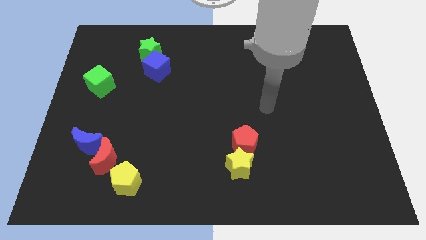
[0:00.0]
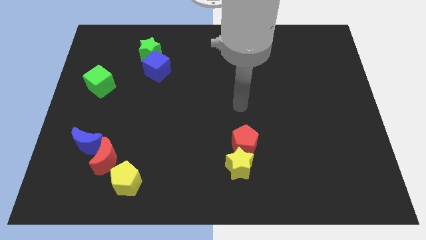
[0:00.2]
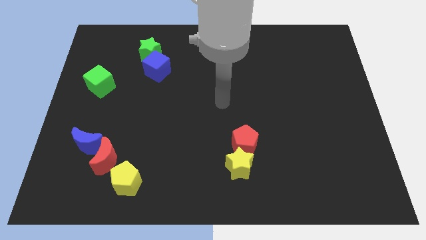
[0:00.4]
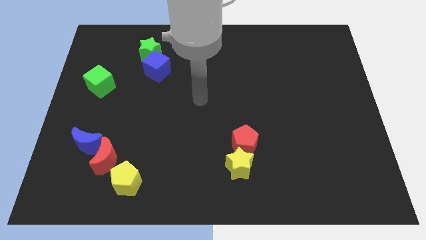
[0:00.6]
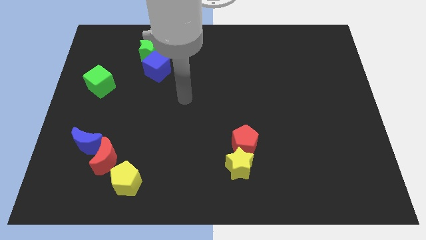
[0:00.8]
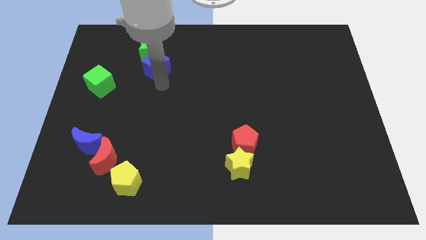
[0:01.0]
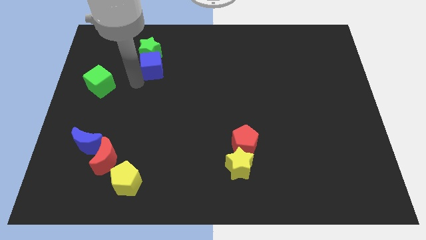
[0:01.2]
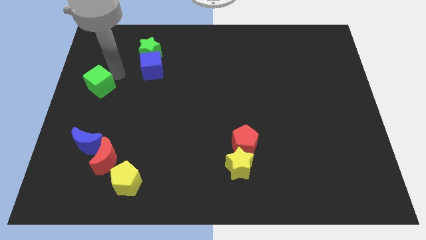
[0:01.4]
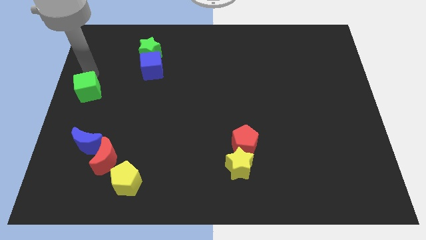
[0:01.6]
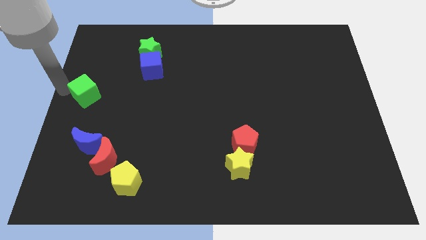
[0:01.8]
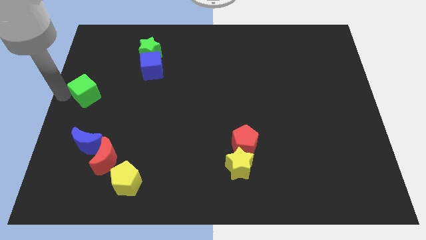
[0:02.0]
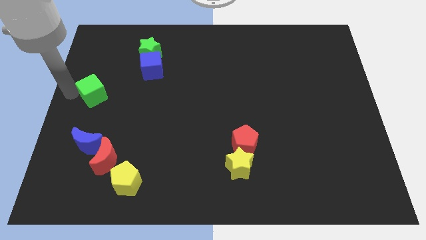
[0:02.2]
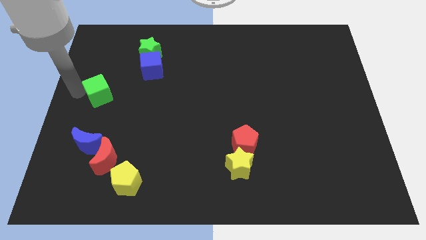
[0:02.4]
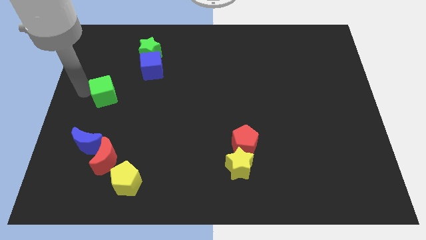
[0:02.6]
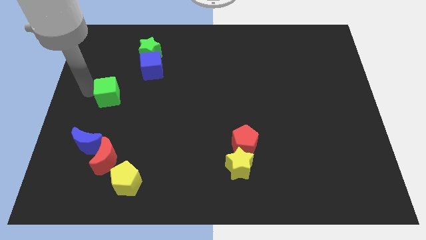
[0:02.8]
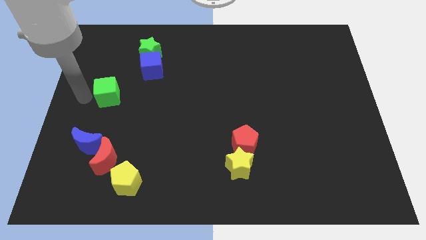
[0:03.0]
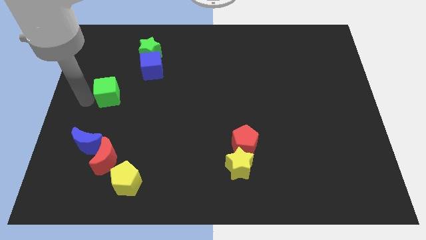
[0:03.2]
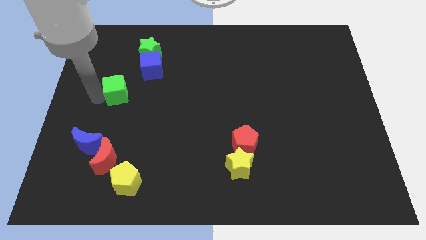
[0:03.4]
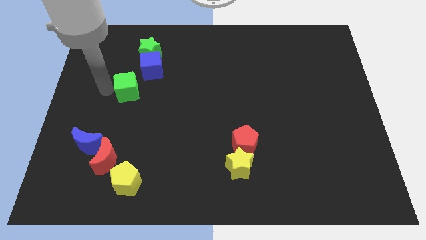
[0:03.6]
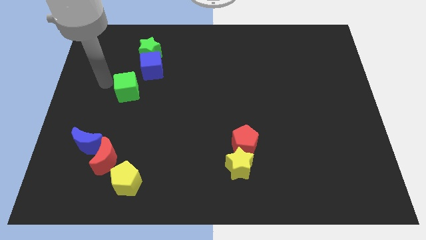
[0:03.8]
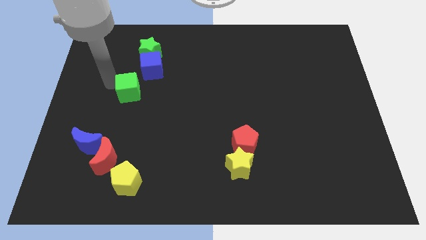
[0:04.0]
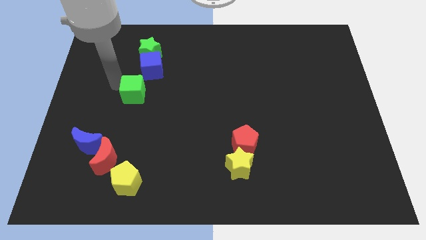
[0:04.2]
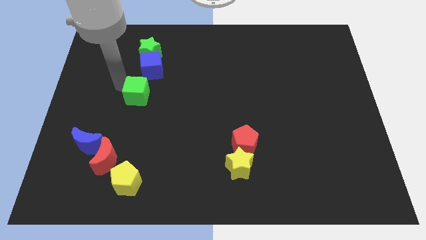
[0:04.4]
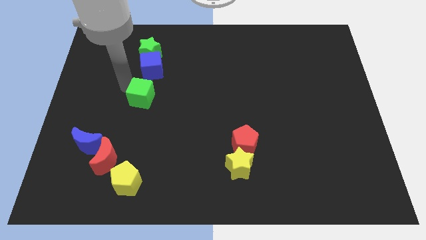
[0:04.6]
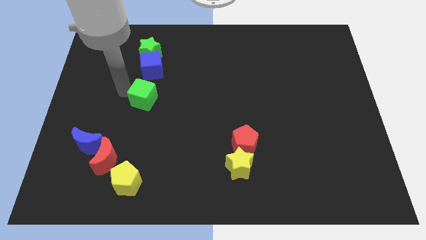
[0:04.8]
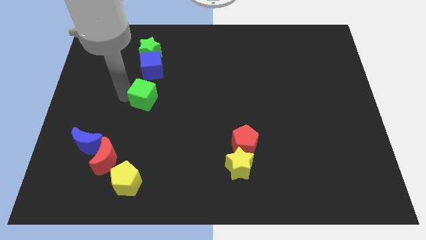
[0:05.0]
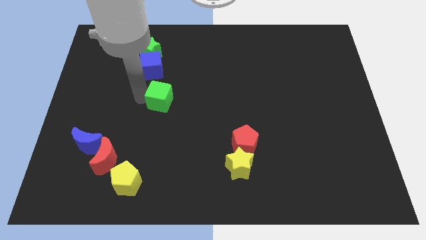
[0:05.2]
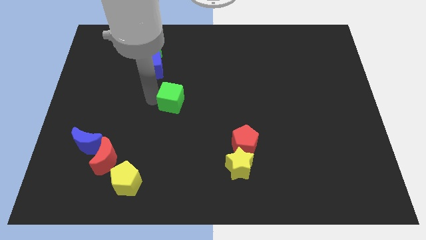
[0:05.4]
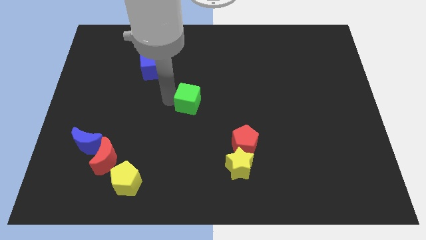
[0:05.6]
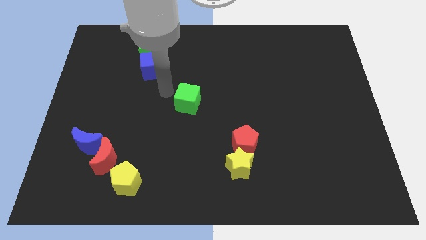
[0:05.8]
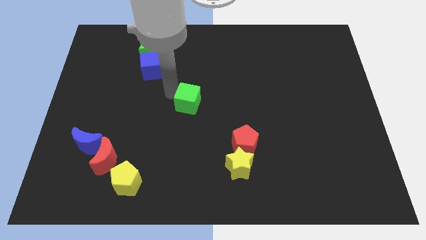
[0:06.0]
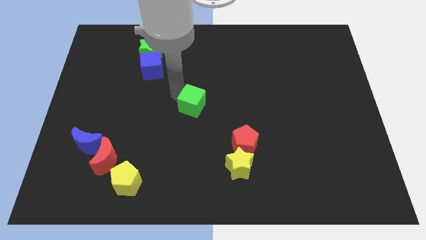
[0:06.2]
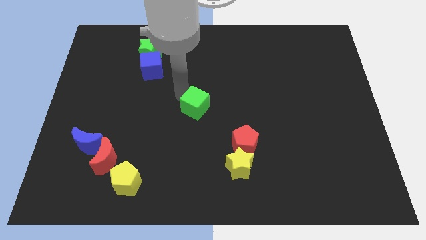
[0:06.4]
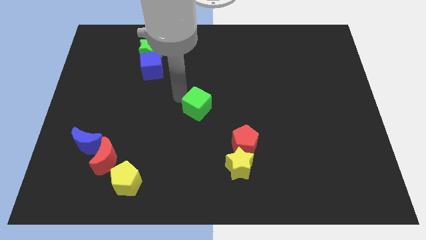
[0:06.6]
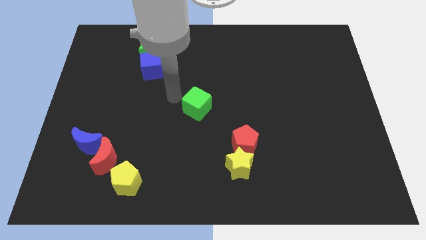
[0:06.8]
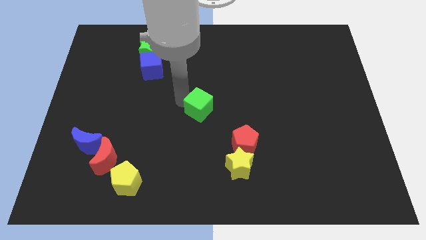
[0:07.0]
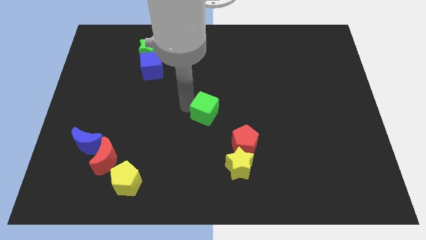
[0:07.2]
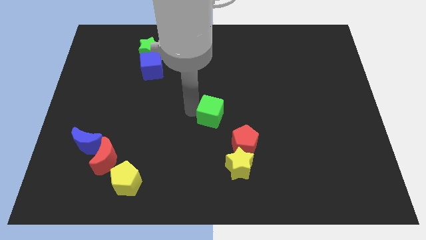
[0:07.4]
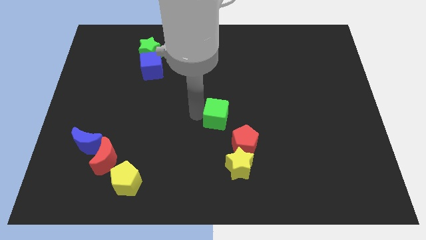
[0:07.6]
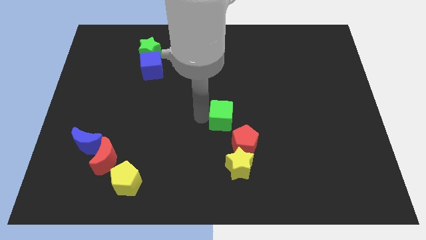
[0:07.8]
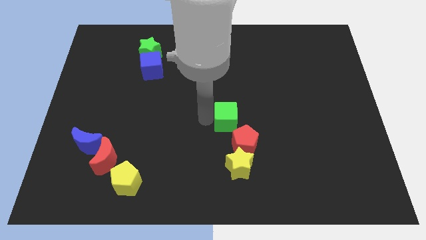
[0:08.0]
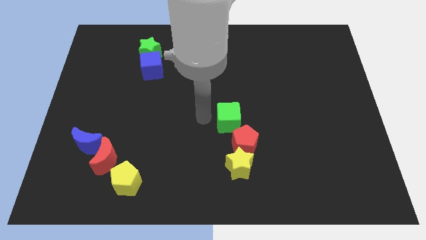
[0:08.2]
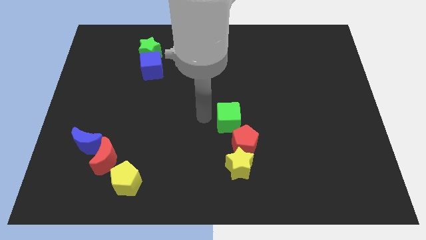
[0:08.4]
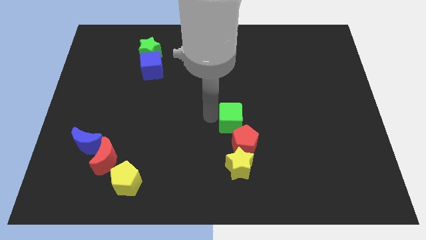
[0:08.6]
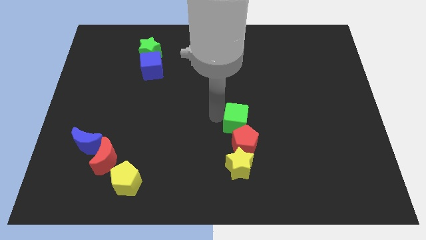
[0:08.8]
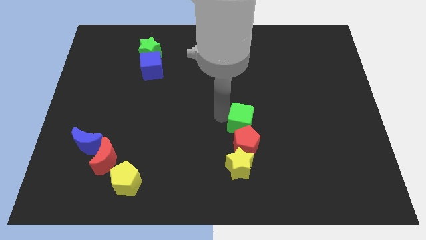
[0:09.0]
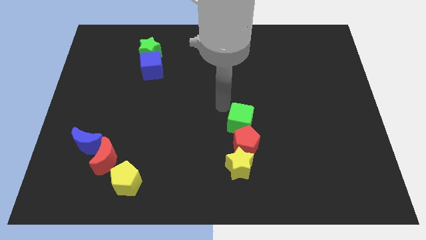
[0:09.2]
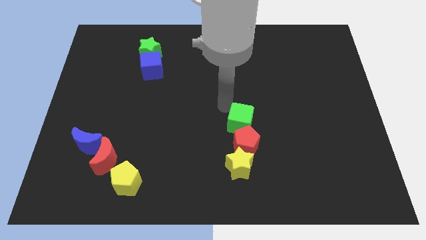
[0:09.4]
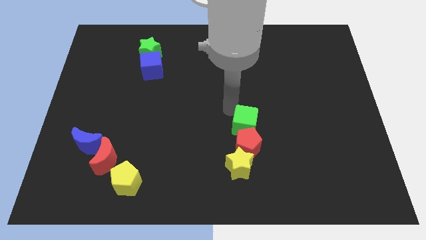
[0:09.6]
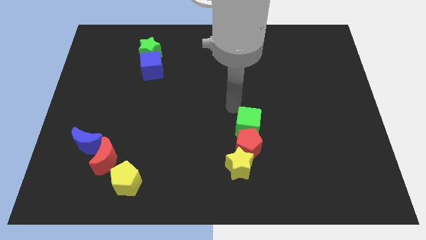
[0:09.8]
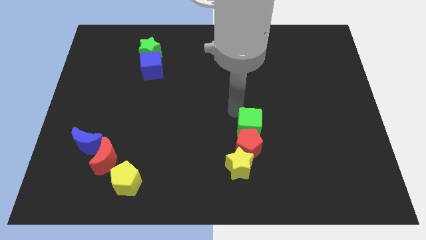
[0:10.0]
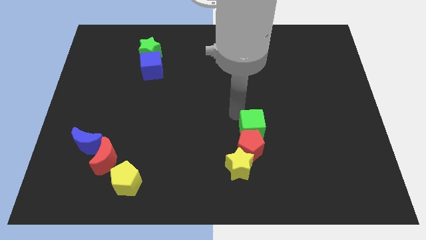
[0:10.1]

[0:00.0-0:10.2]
push the green cube to the top right of the yellow star

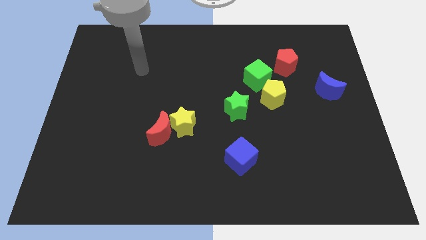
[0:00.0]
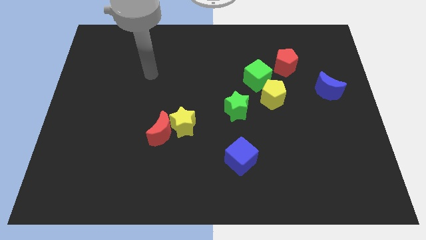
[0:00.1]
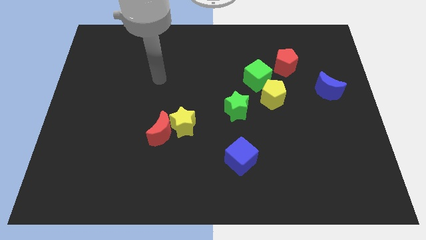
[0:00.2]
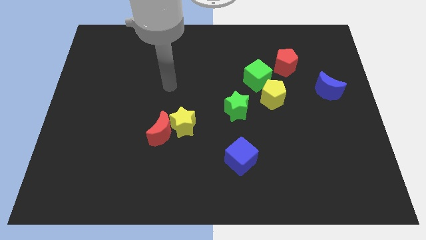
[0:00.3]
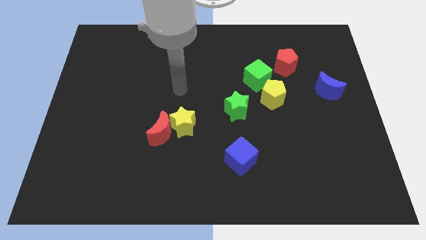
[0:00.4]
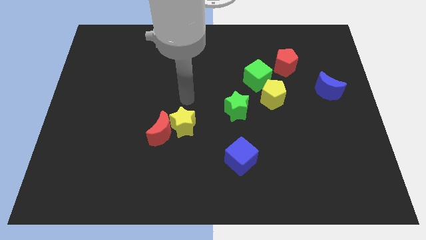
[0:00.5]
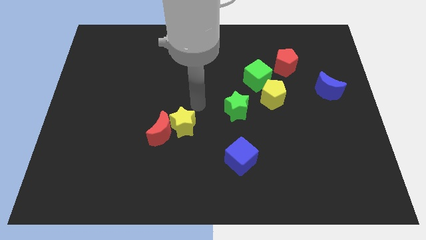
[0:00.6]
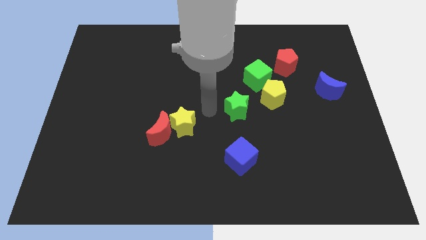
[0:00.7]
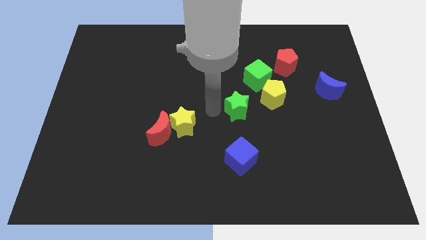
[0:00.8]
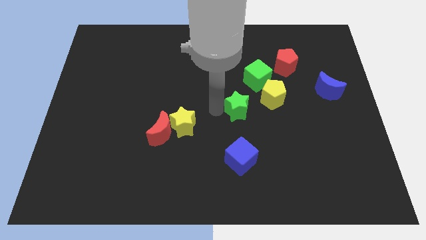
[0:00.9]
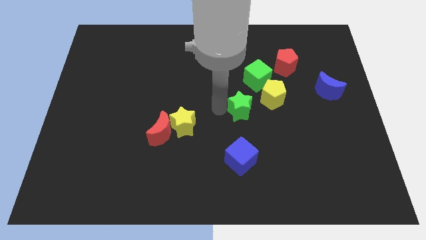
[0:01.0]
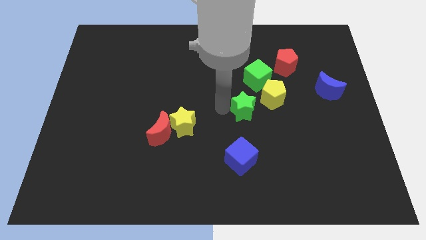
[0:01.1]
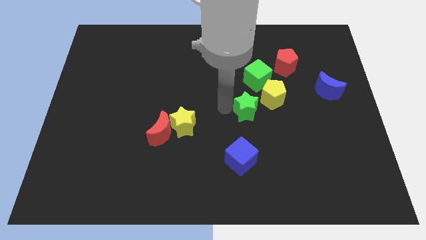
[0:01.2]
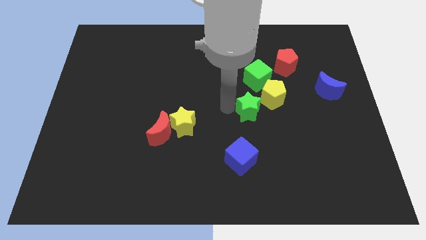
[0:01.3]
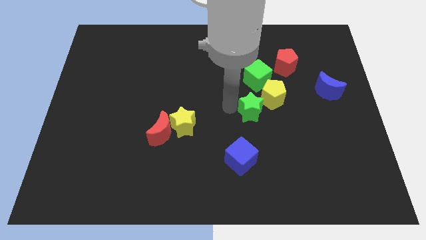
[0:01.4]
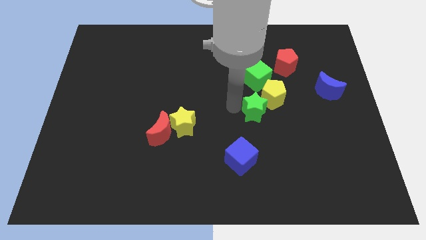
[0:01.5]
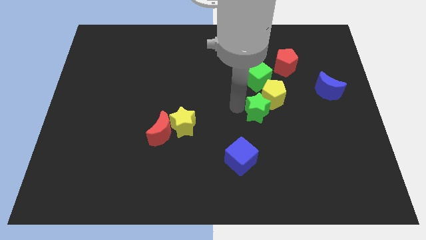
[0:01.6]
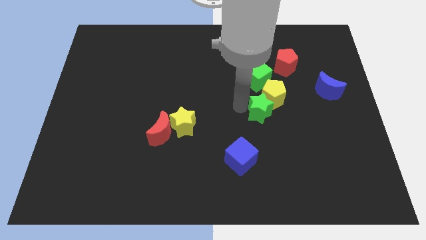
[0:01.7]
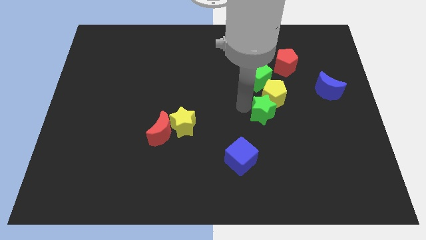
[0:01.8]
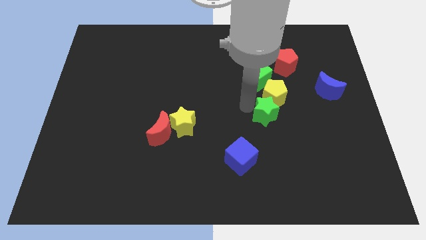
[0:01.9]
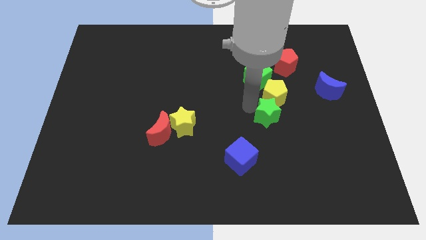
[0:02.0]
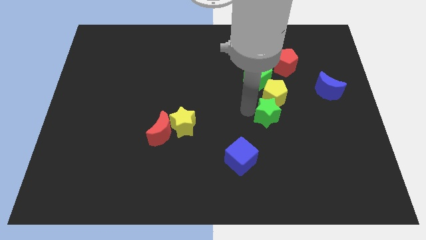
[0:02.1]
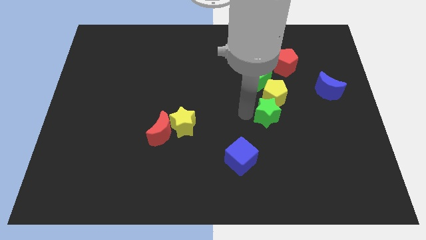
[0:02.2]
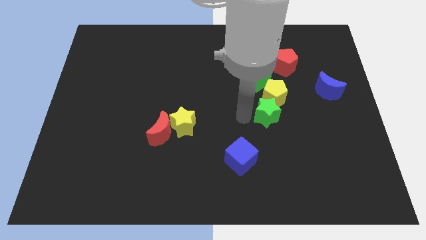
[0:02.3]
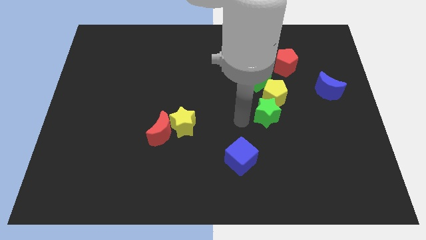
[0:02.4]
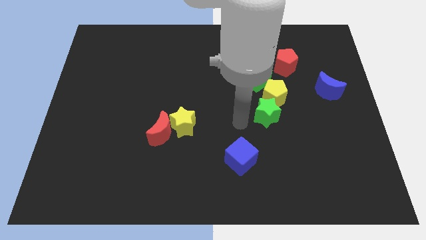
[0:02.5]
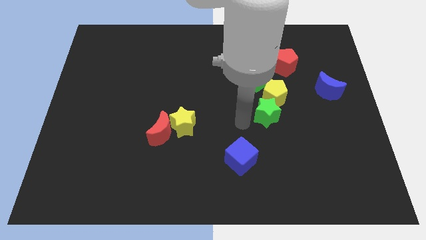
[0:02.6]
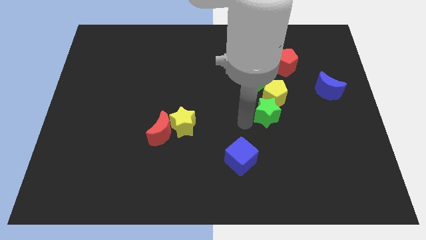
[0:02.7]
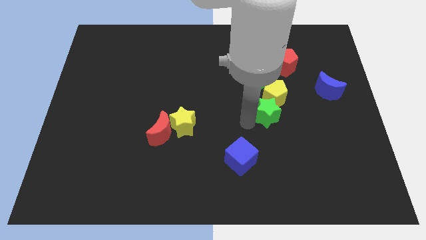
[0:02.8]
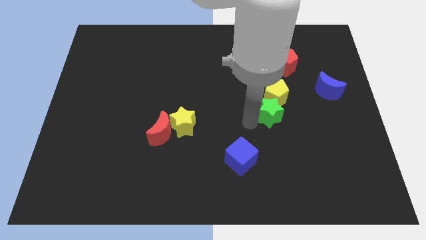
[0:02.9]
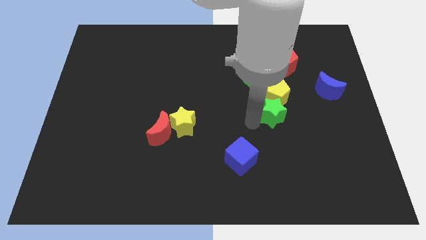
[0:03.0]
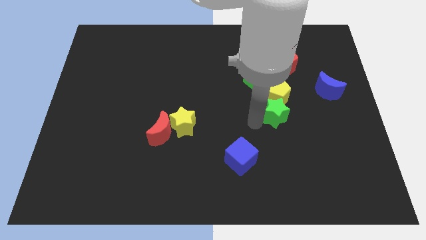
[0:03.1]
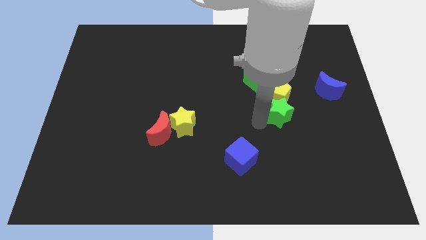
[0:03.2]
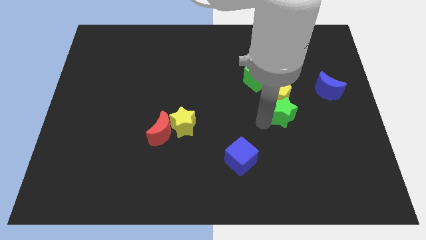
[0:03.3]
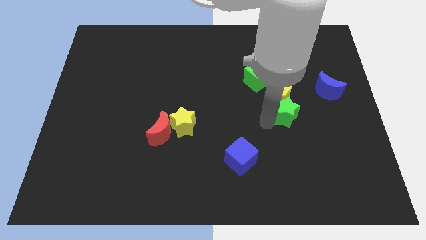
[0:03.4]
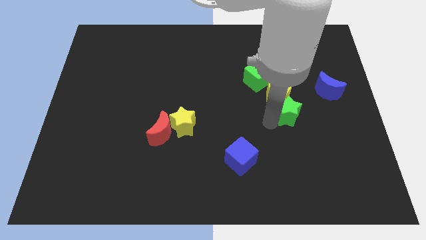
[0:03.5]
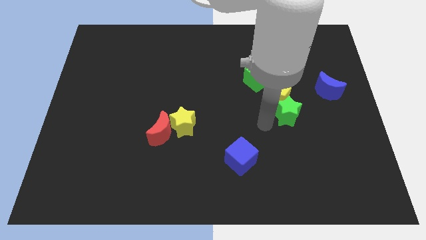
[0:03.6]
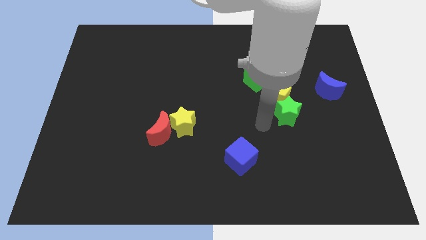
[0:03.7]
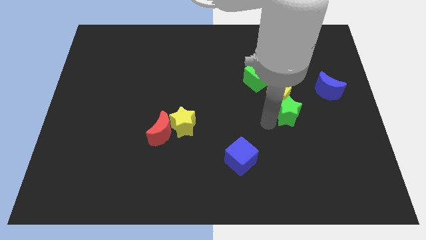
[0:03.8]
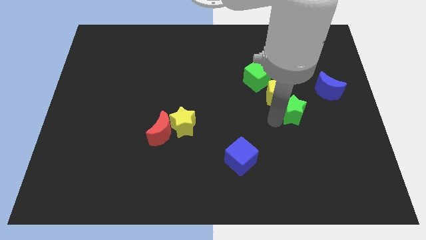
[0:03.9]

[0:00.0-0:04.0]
put the green star to the bottom left side of the blue moon
